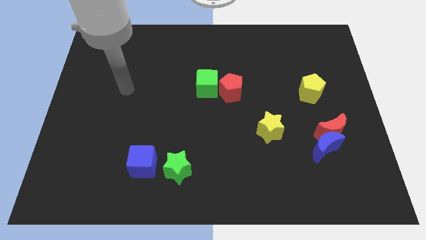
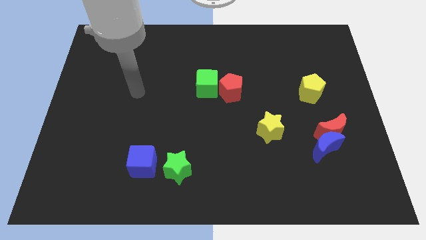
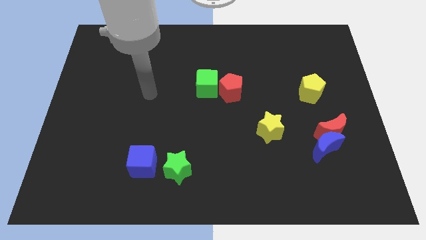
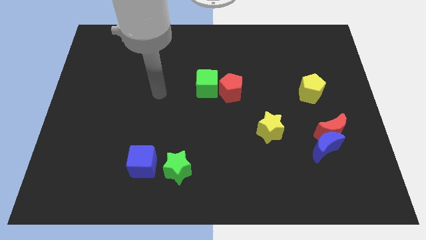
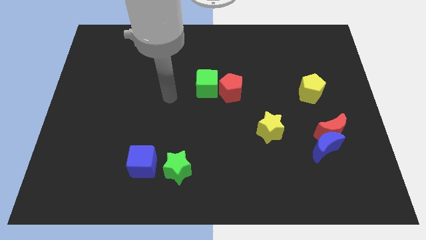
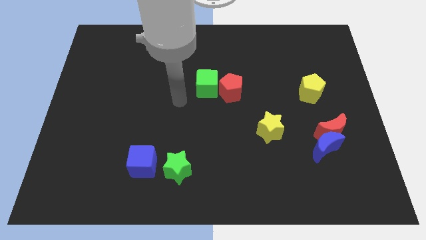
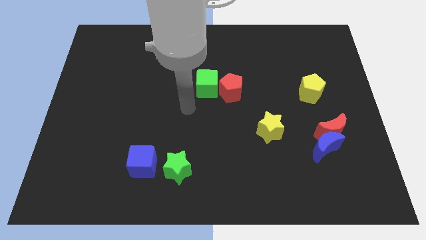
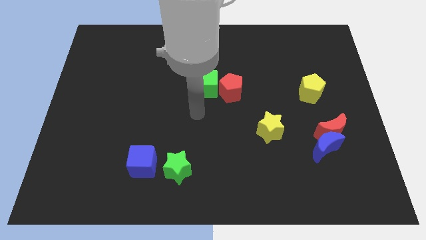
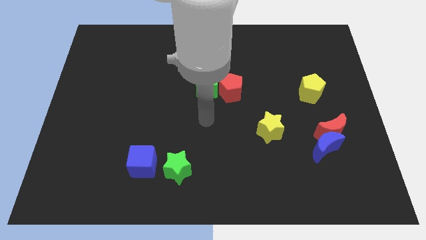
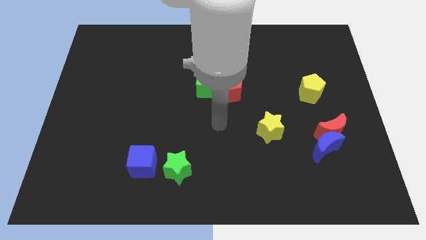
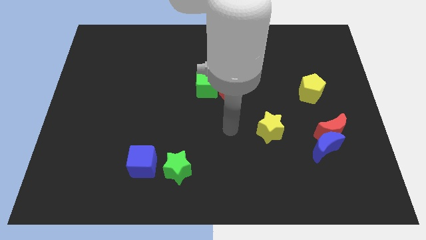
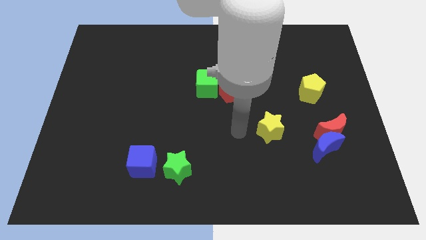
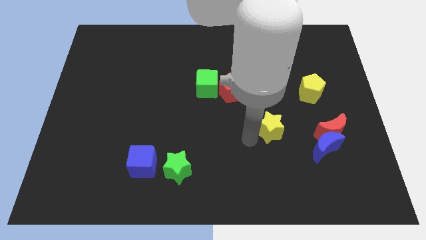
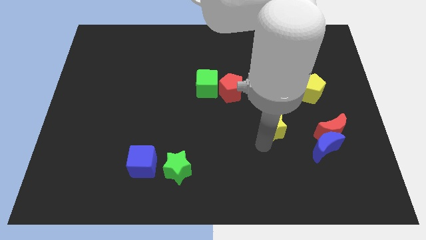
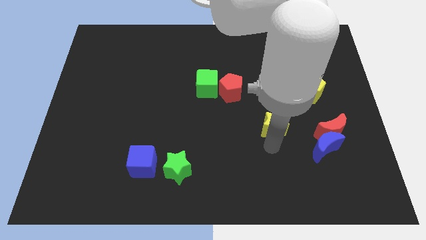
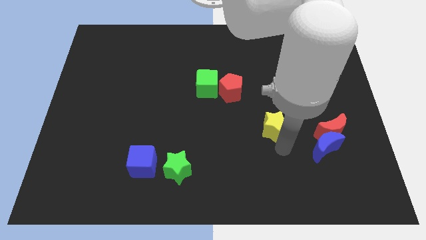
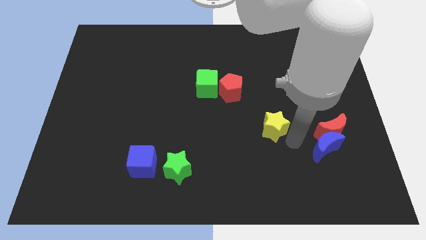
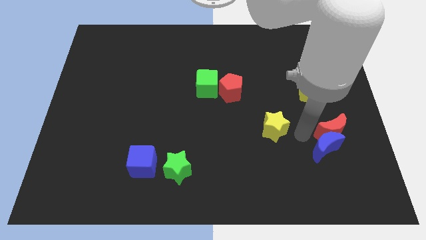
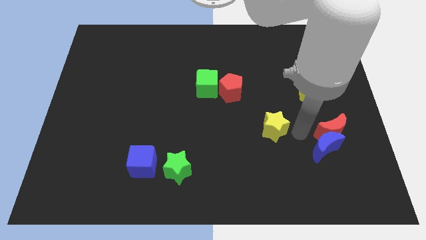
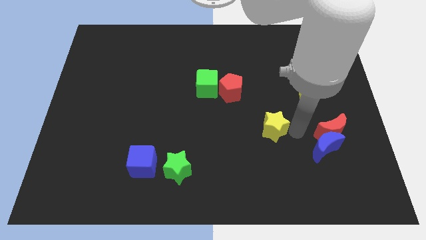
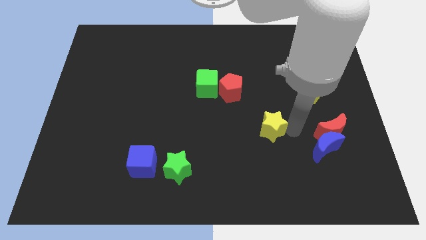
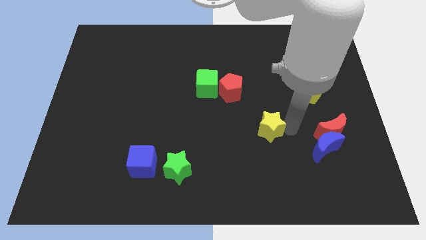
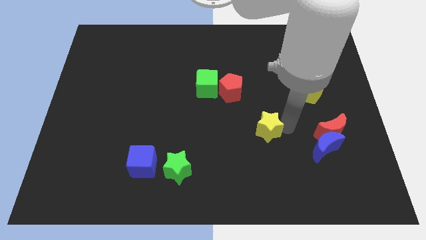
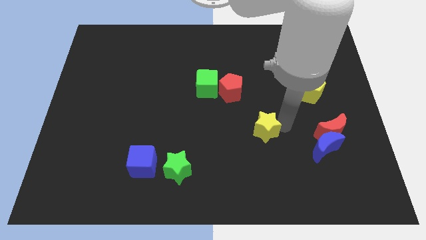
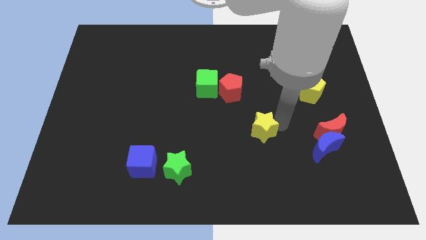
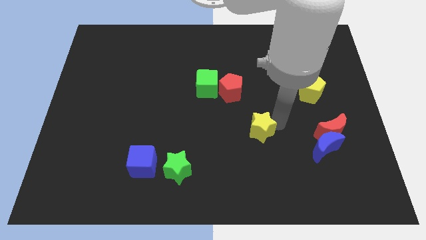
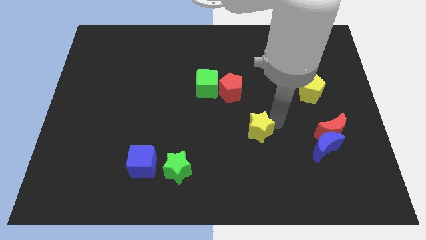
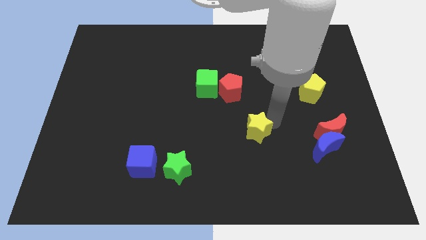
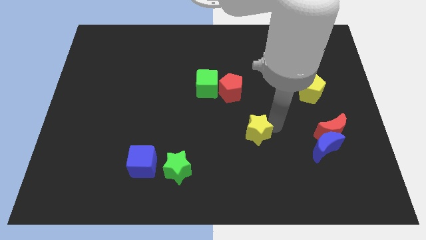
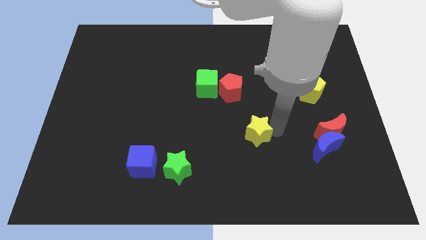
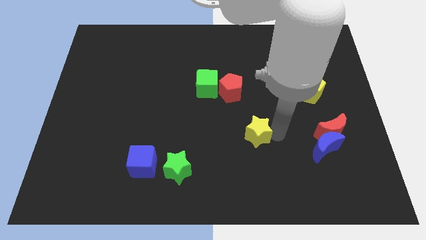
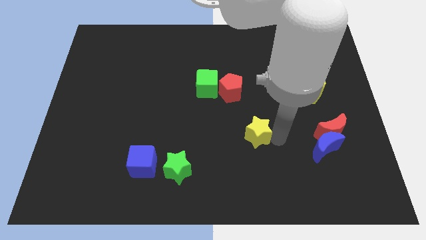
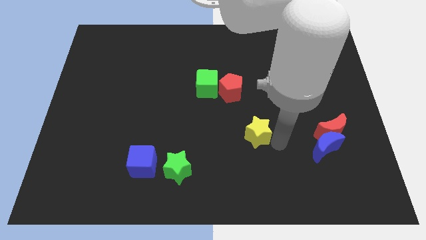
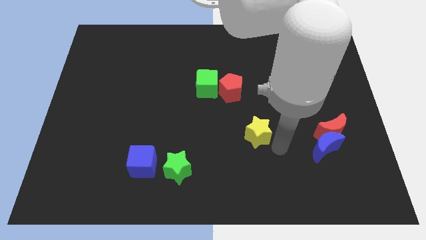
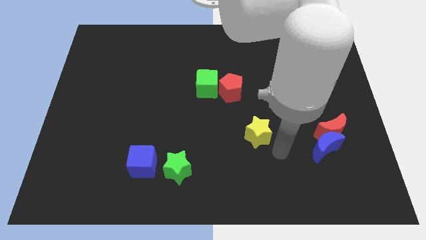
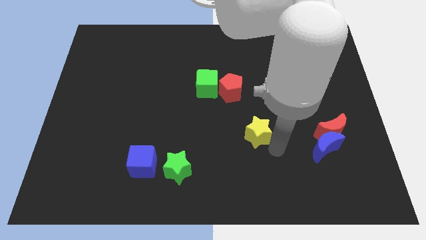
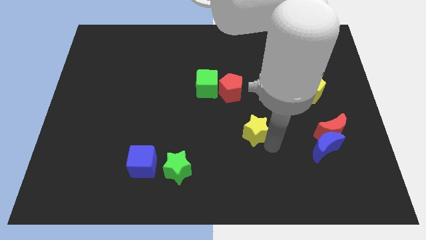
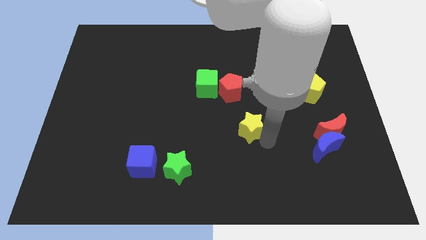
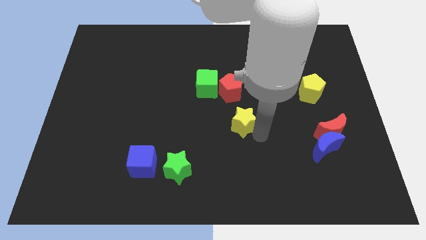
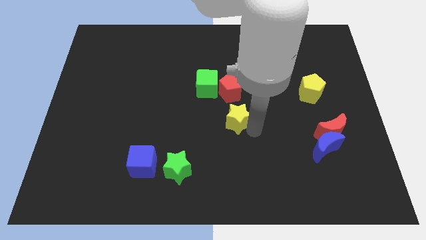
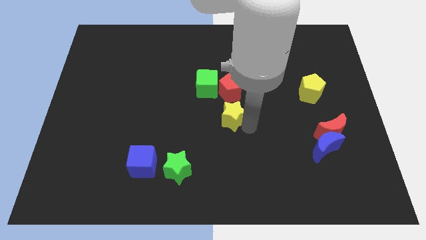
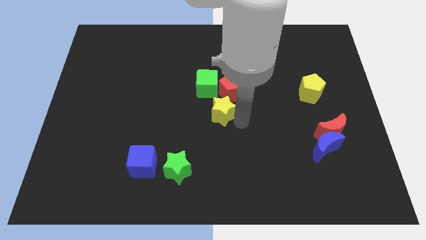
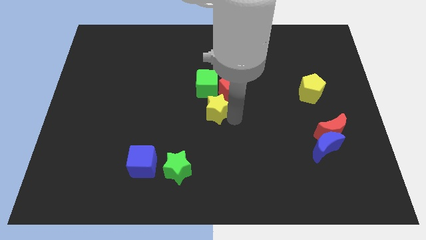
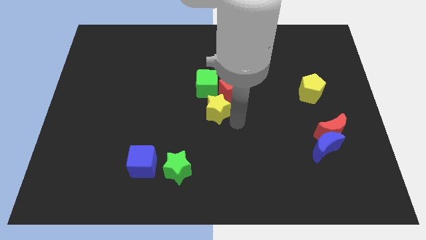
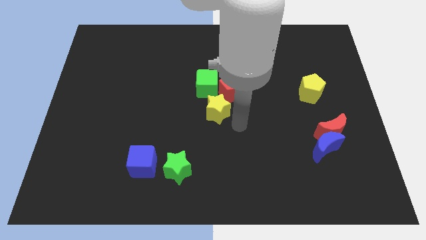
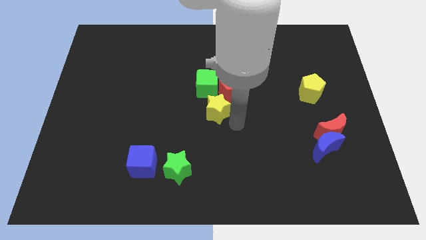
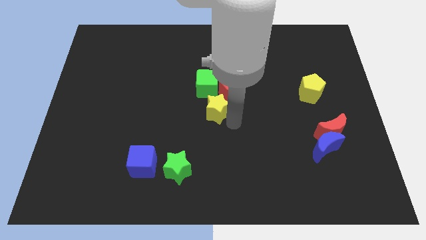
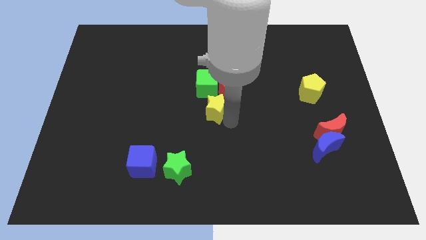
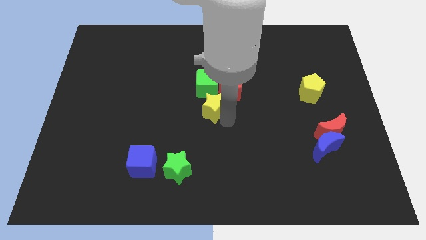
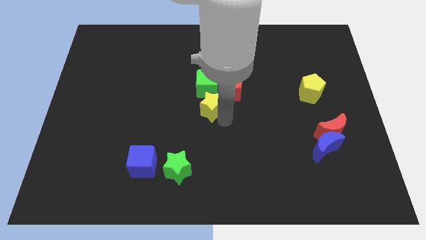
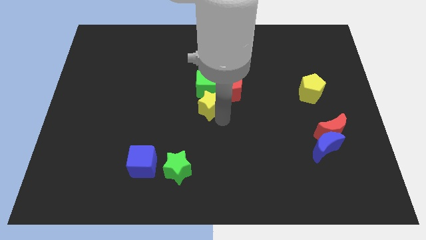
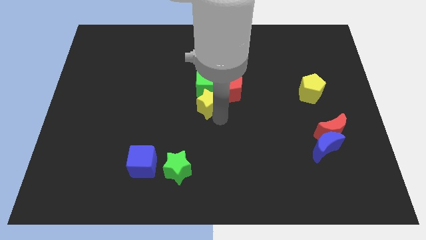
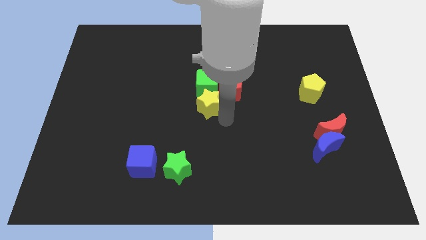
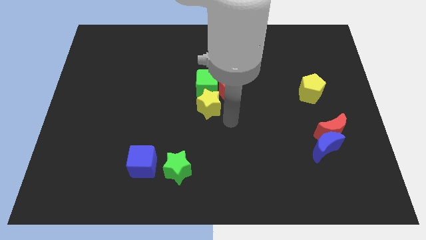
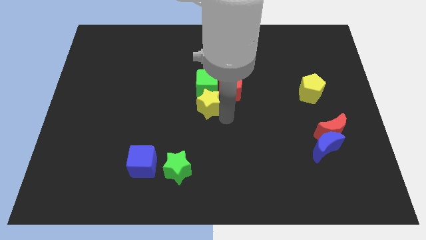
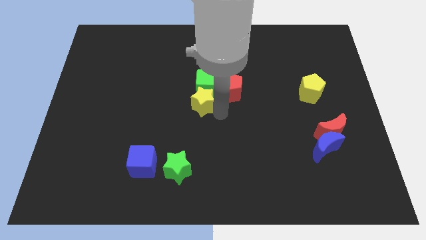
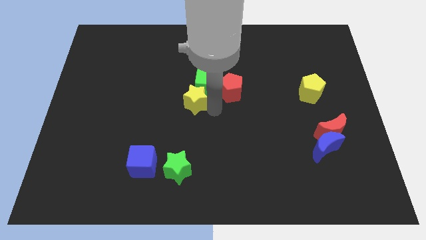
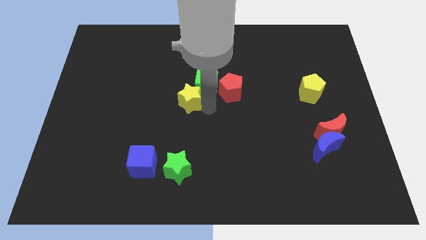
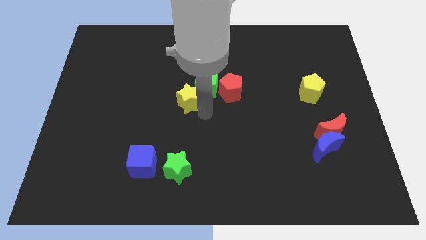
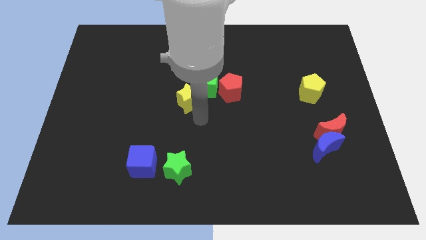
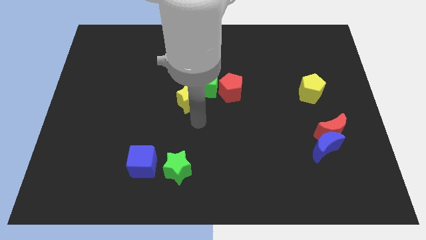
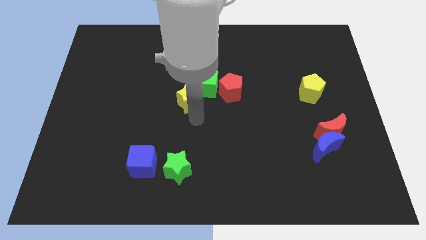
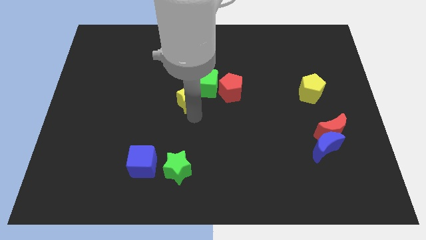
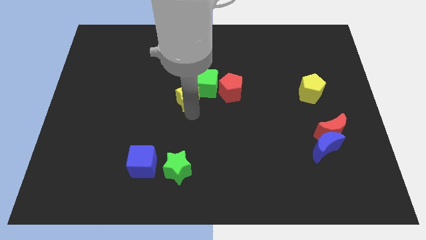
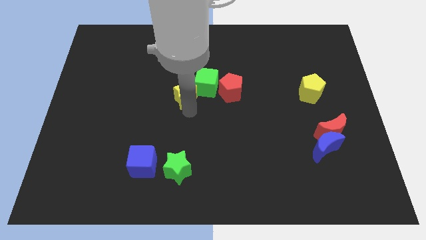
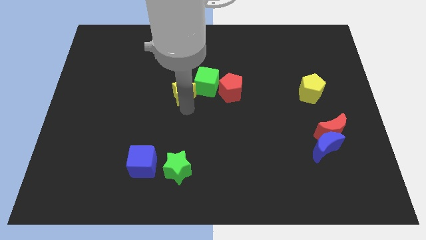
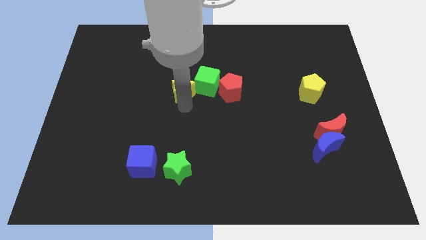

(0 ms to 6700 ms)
push the yellow star upwards and left

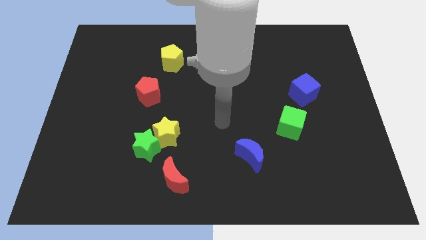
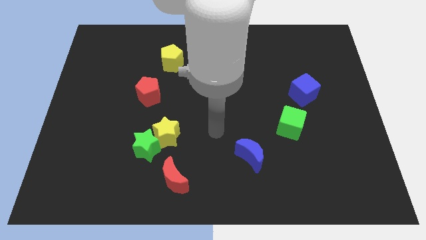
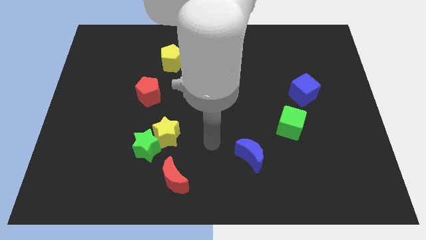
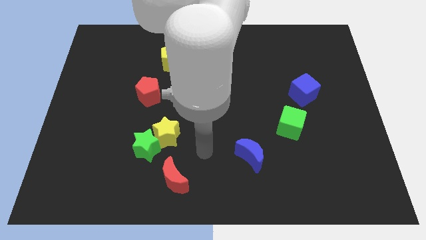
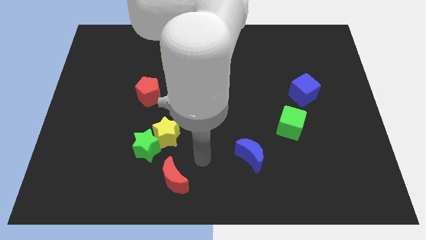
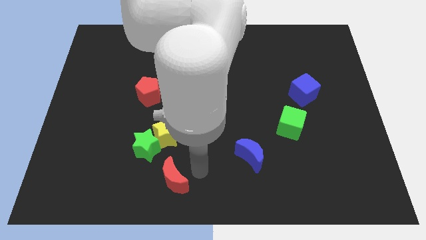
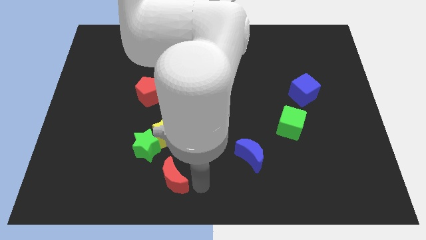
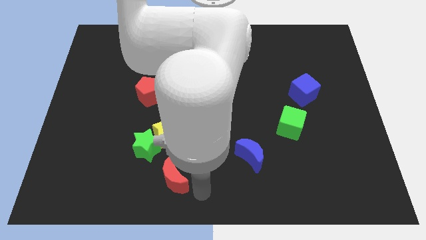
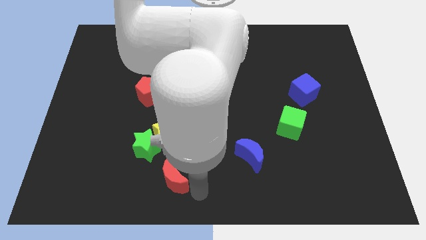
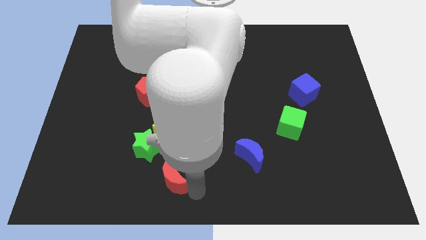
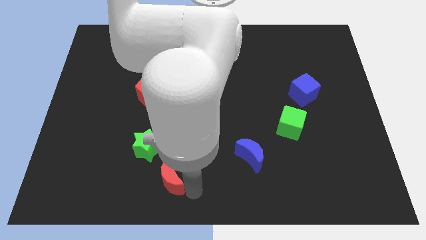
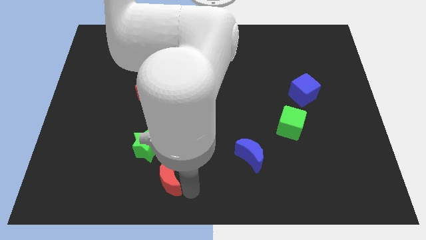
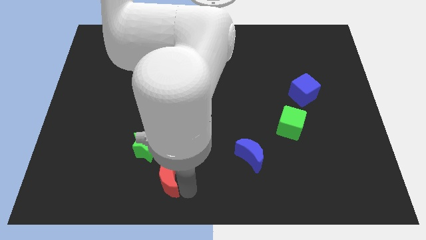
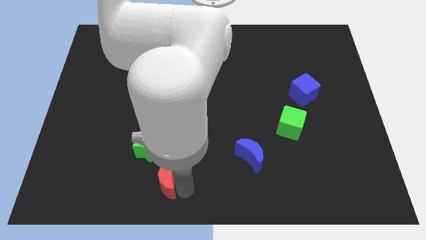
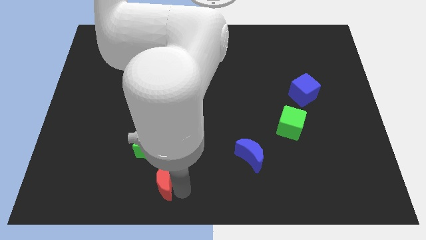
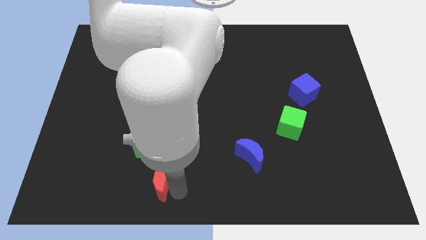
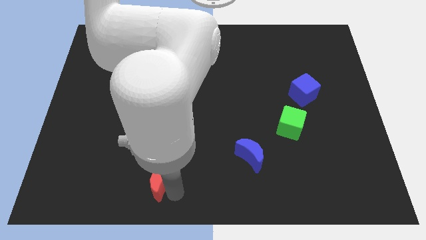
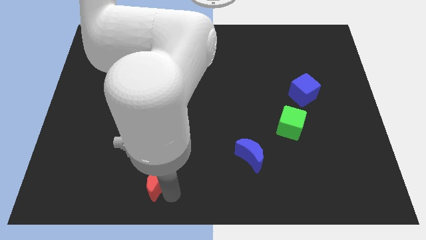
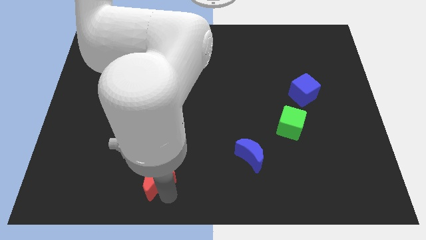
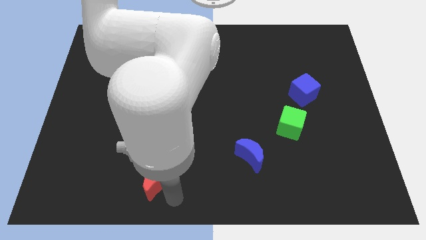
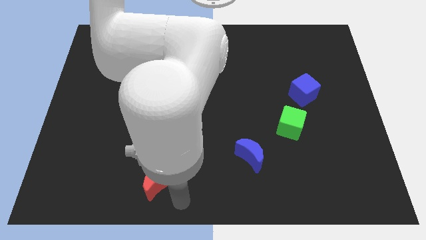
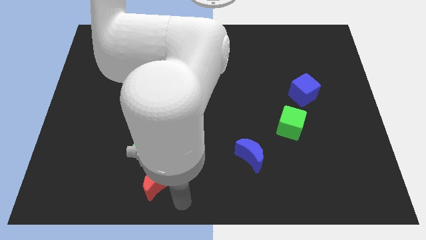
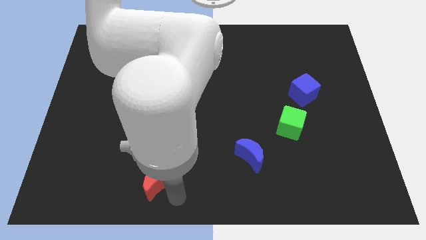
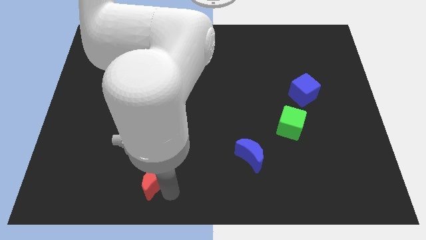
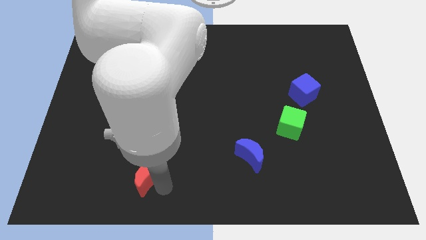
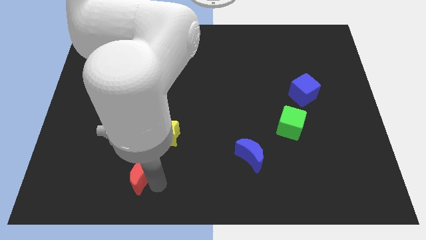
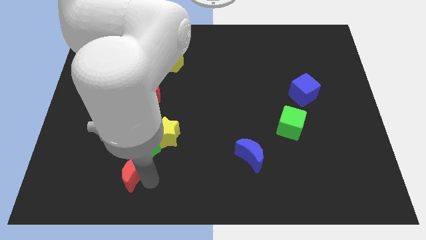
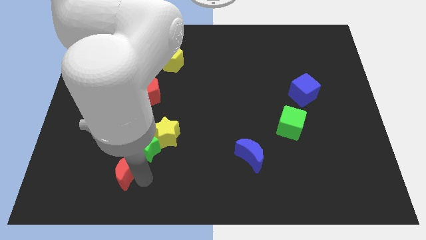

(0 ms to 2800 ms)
slightly push the red moon upwards and to the left
